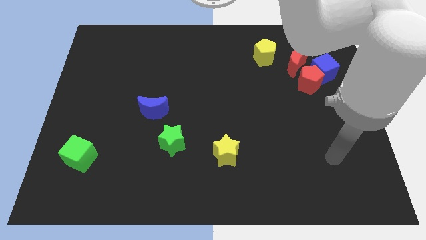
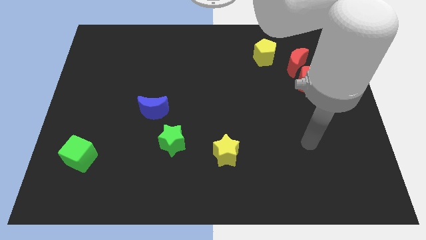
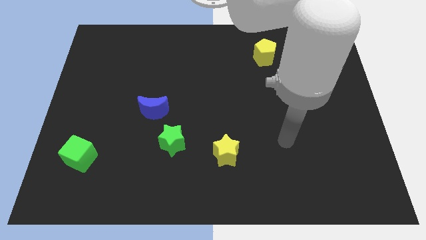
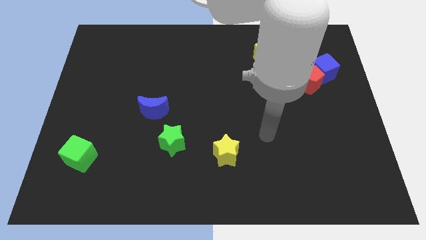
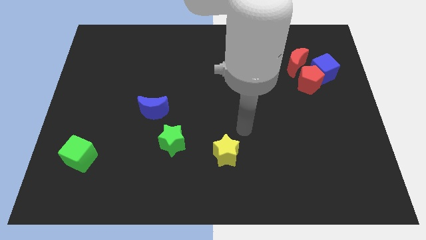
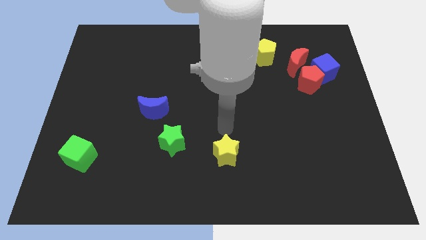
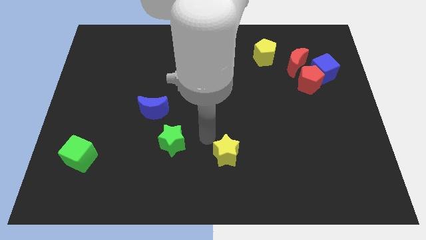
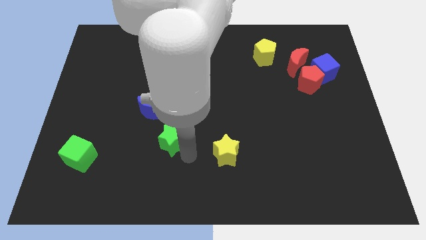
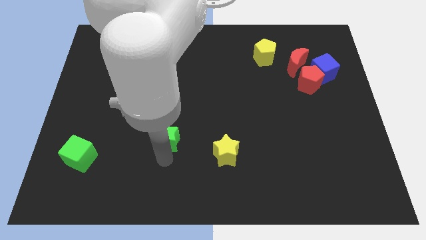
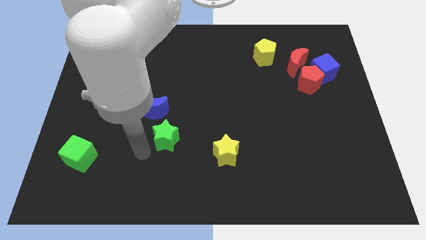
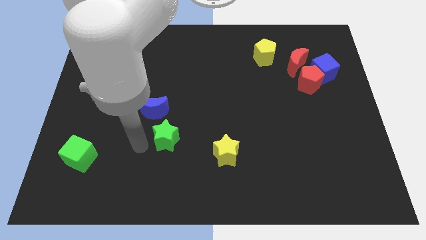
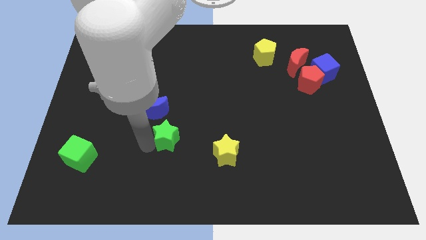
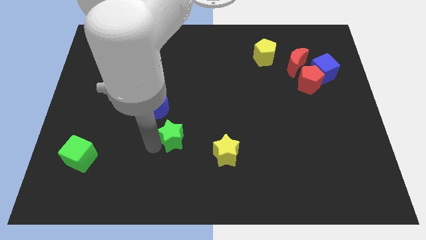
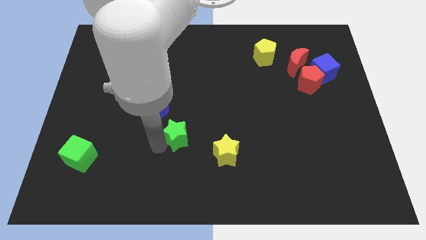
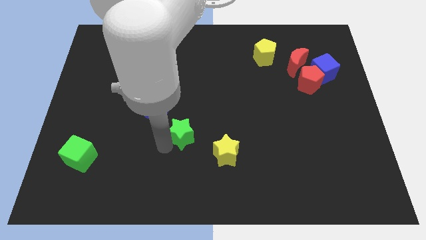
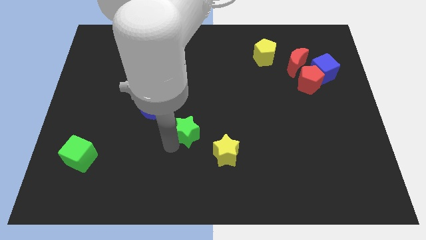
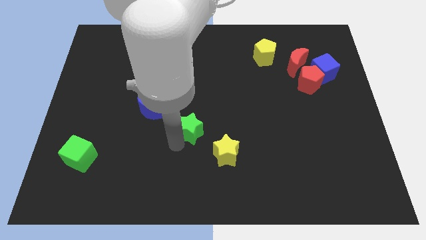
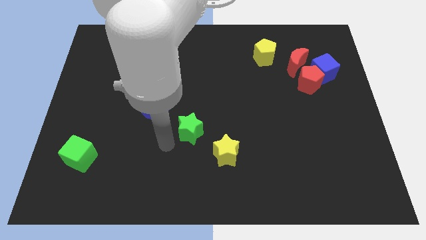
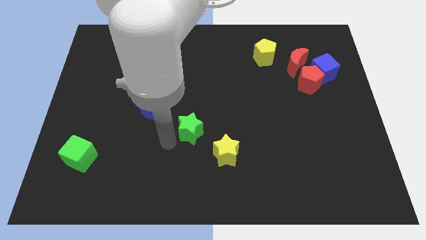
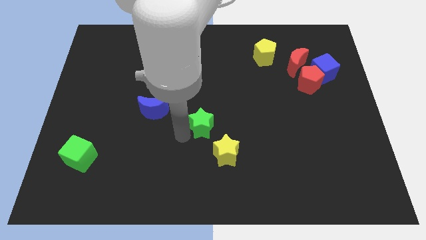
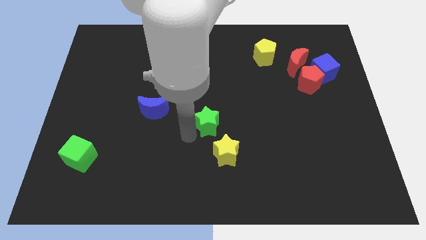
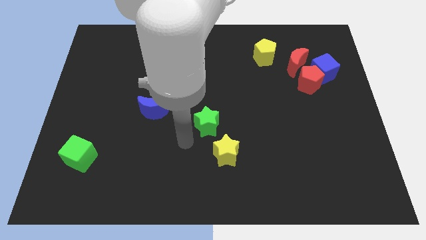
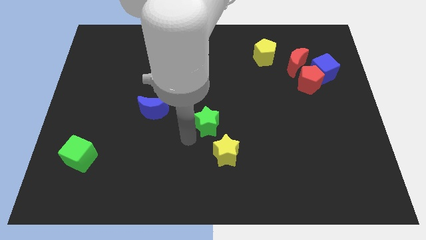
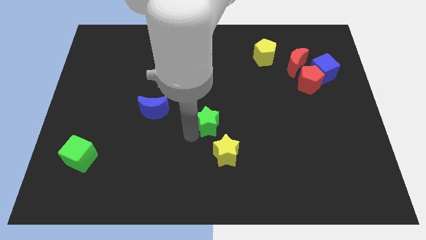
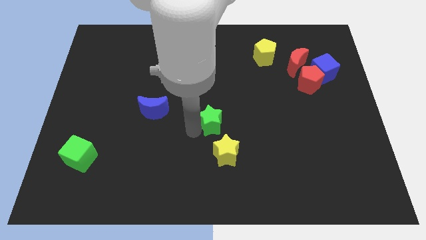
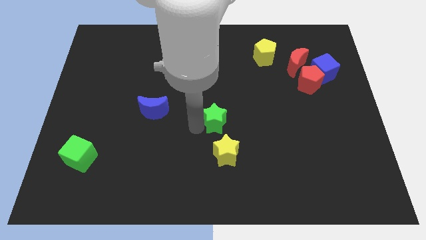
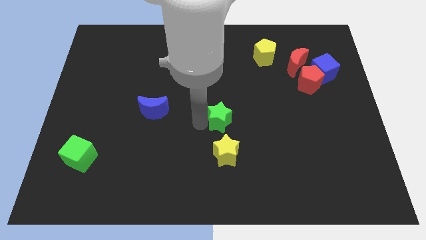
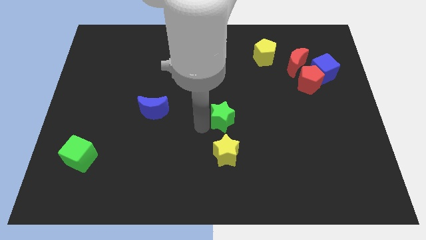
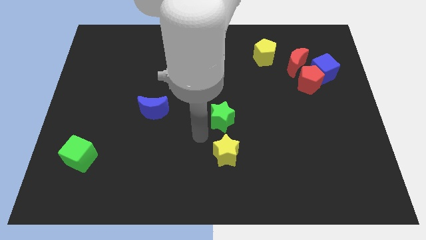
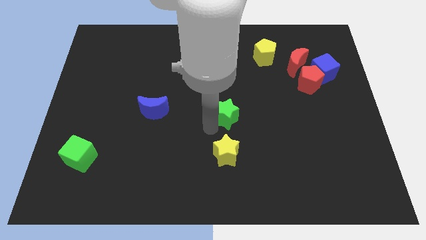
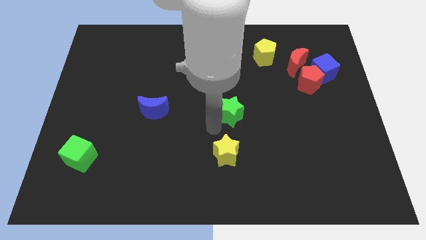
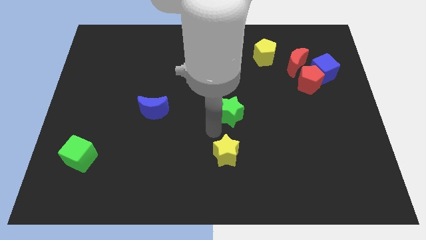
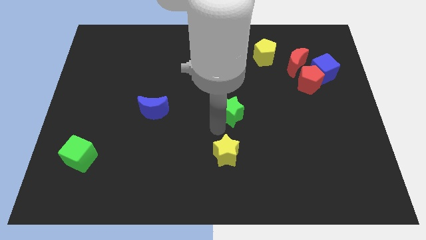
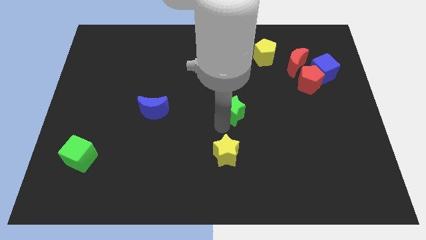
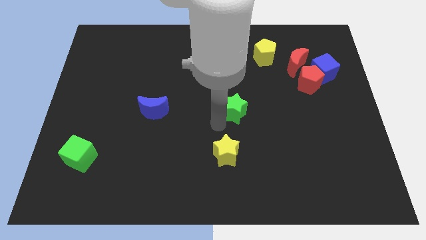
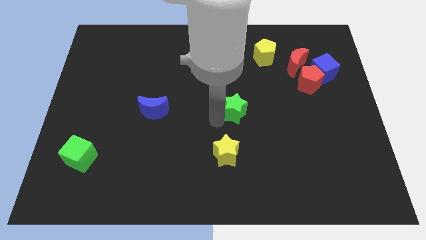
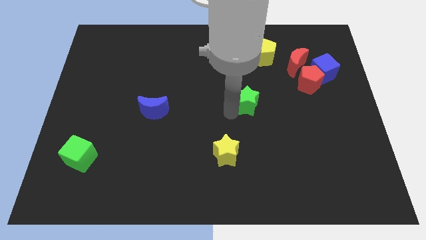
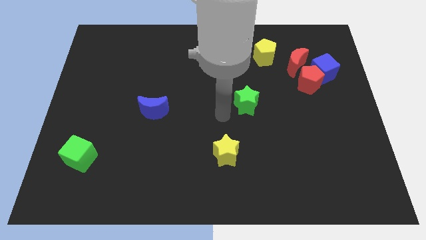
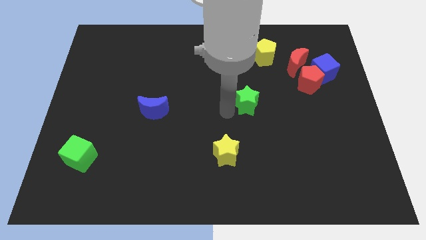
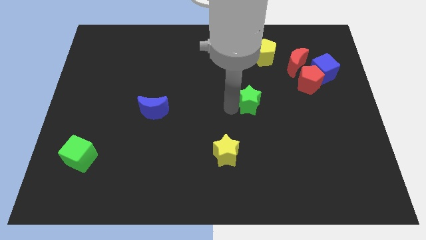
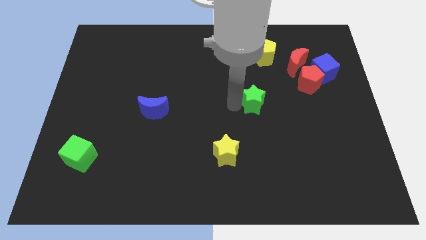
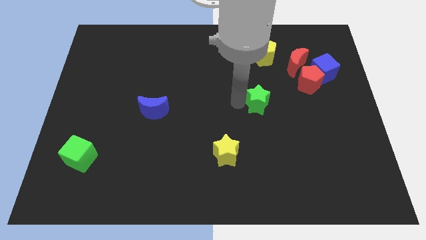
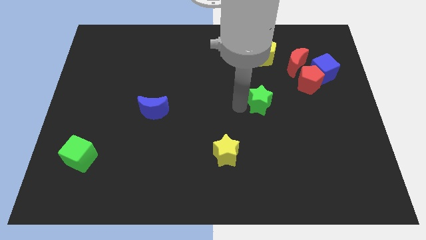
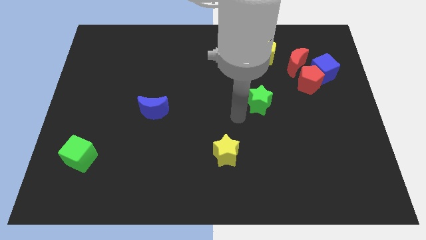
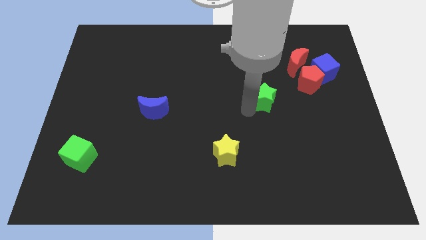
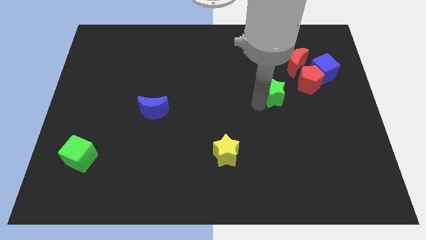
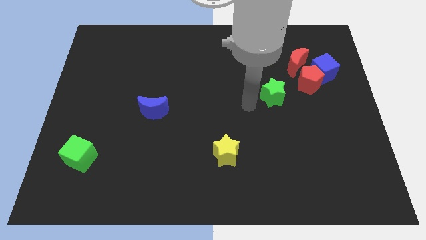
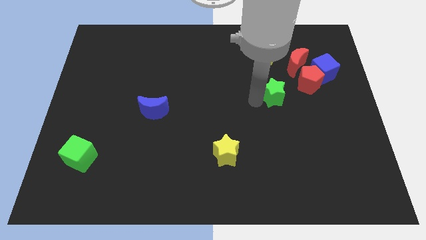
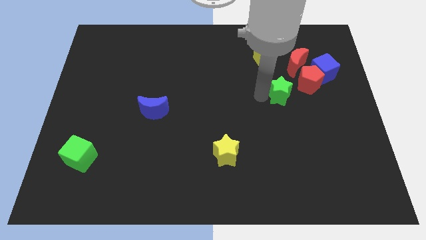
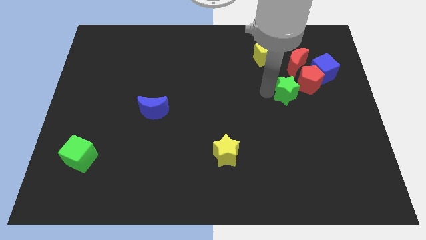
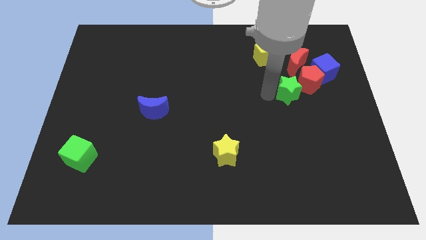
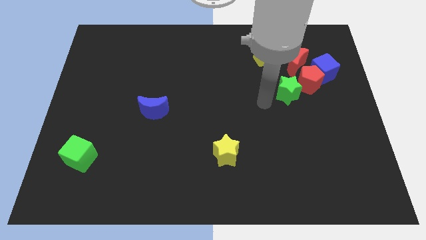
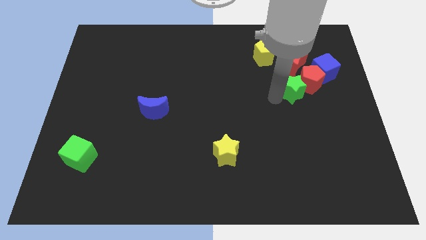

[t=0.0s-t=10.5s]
slide the green star to the red pentagon

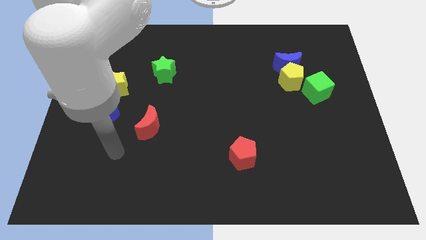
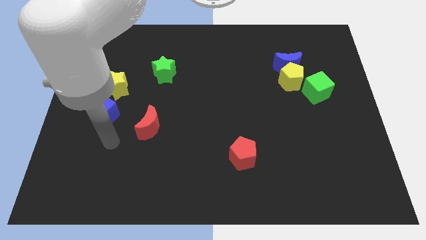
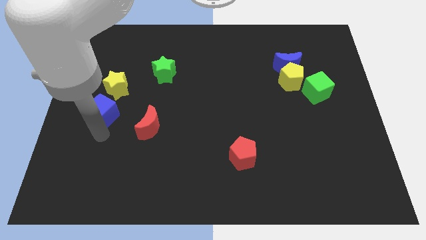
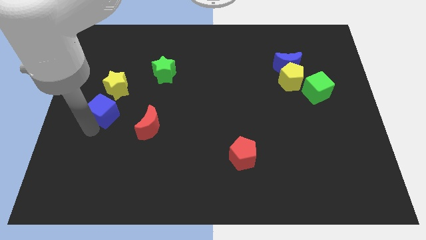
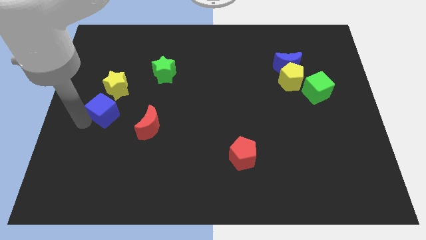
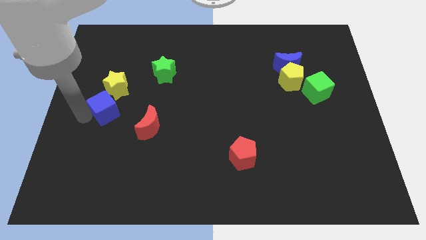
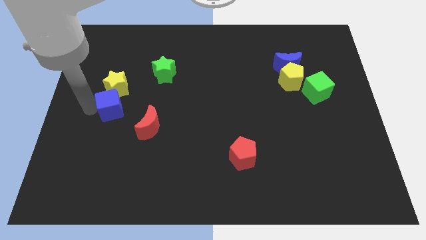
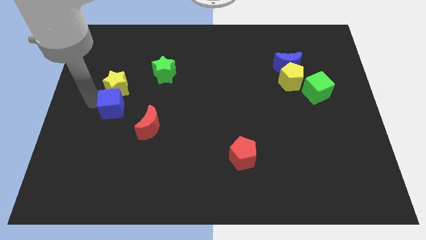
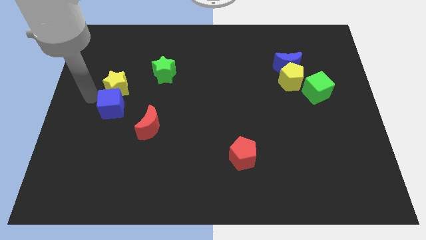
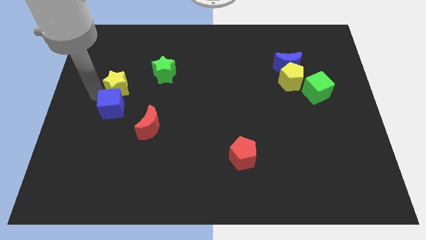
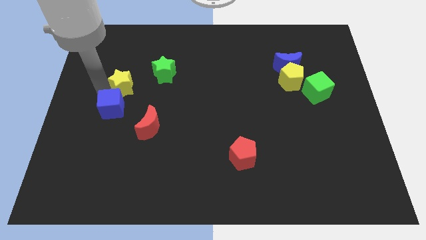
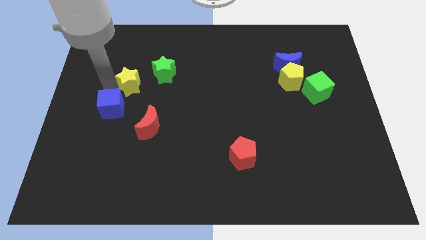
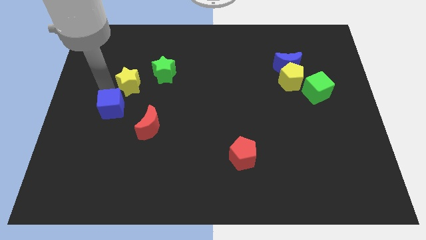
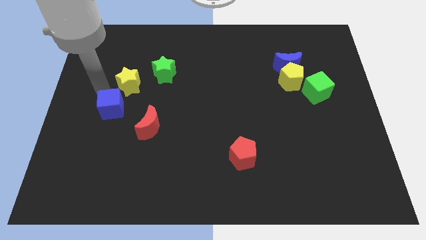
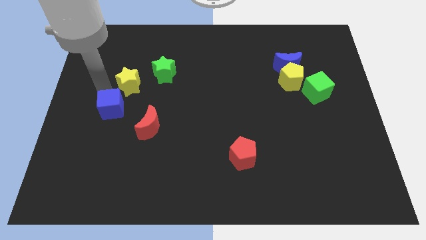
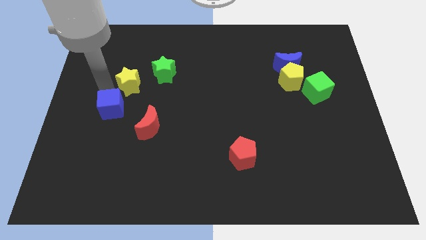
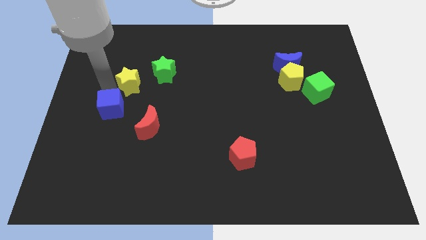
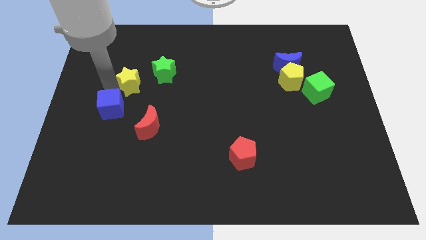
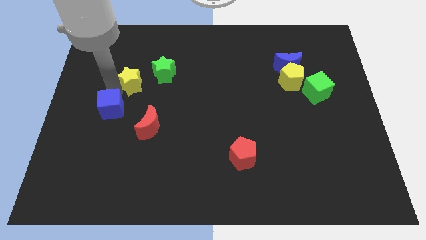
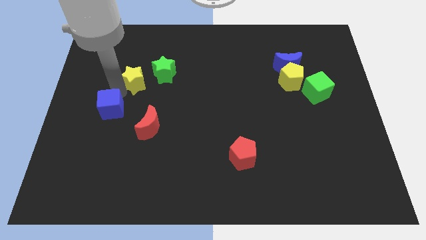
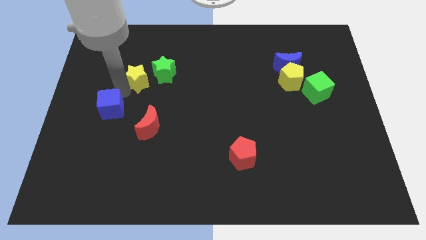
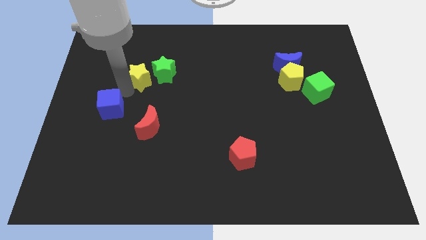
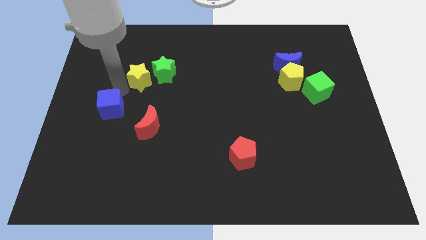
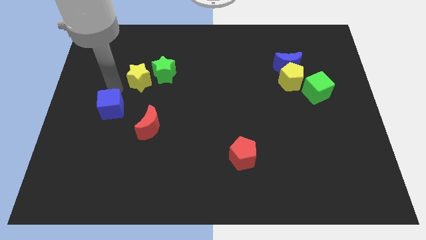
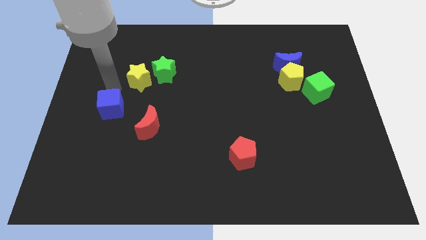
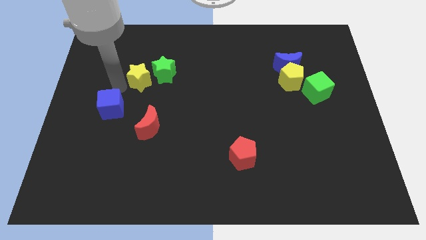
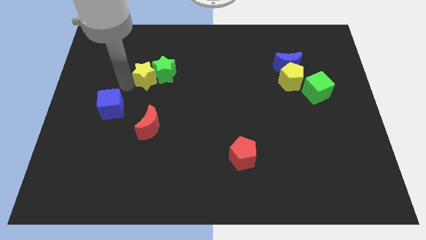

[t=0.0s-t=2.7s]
slide the yellow star towards the green star
